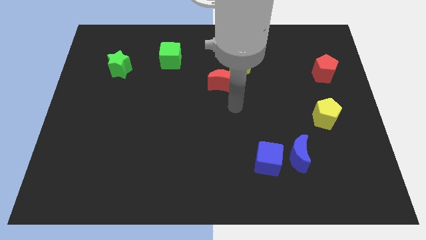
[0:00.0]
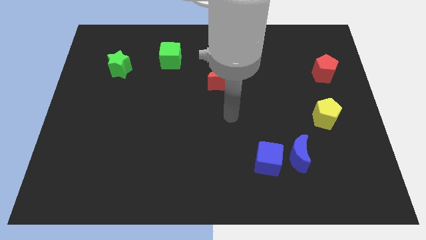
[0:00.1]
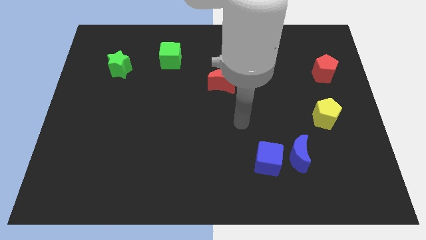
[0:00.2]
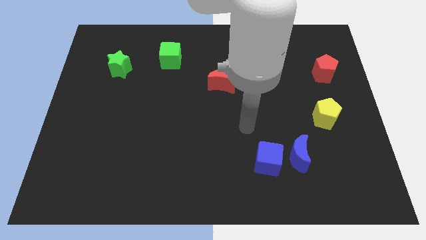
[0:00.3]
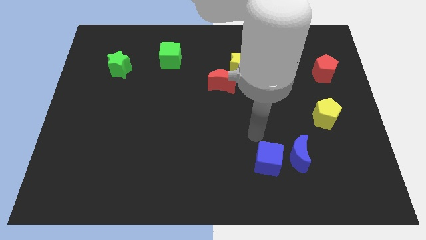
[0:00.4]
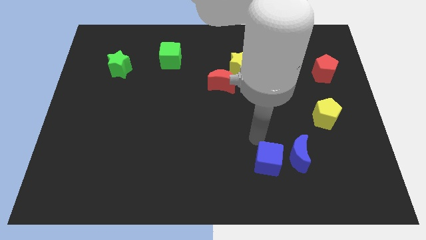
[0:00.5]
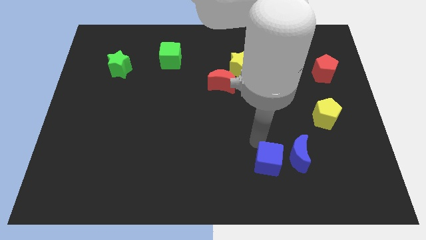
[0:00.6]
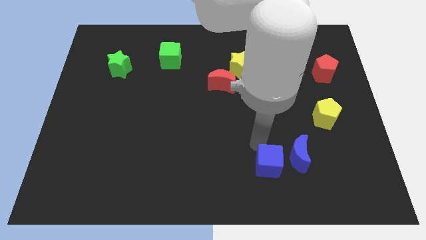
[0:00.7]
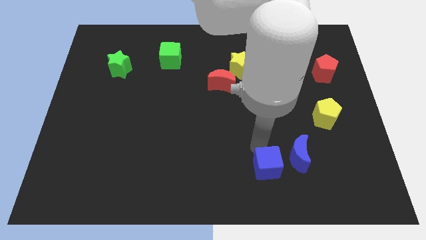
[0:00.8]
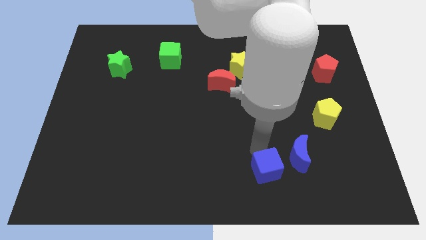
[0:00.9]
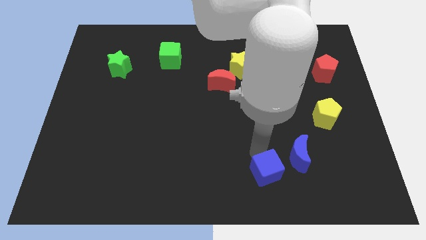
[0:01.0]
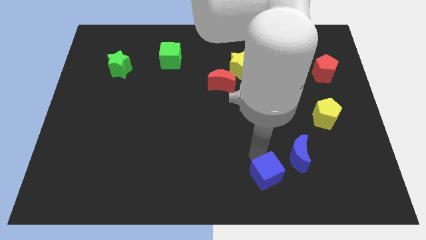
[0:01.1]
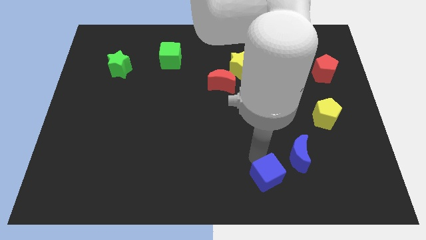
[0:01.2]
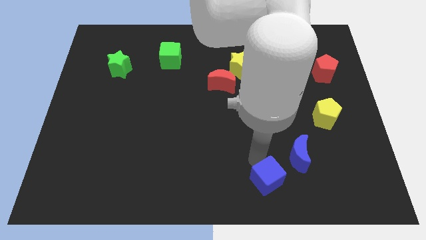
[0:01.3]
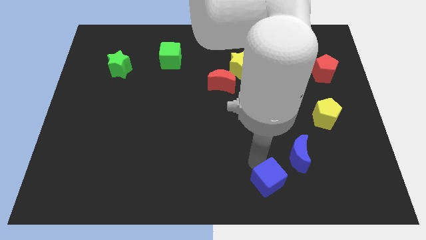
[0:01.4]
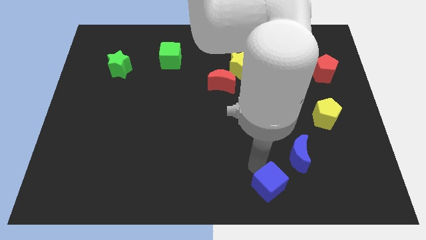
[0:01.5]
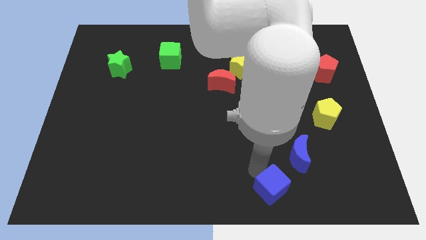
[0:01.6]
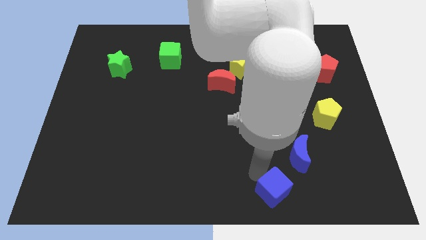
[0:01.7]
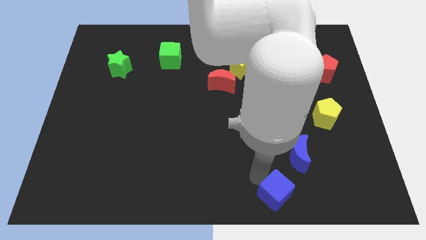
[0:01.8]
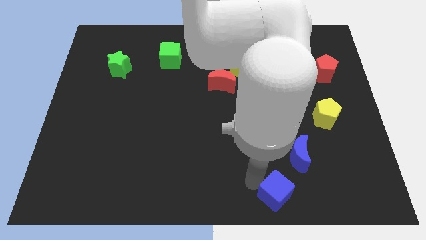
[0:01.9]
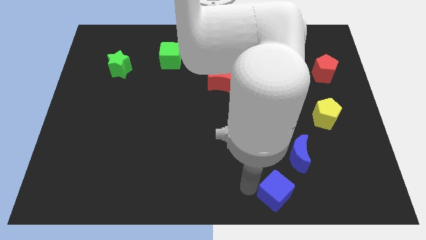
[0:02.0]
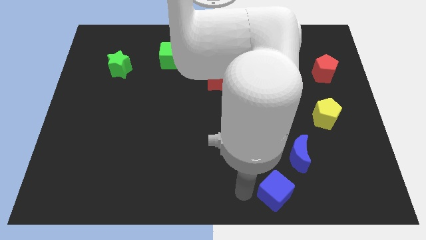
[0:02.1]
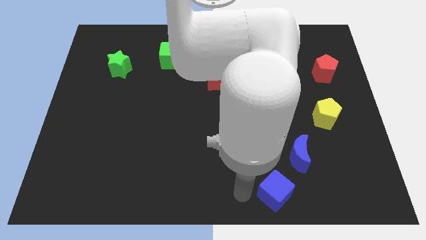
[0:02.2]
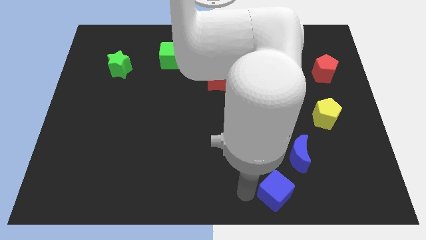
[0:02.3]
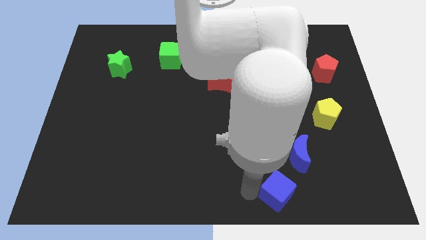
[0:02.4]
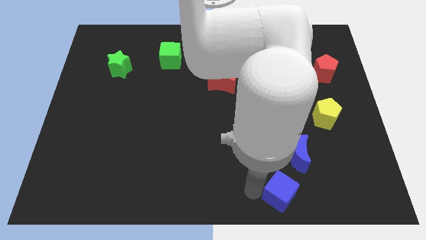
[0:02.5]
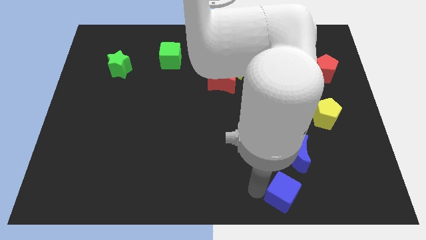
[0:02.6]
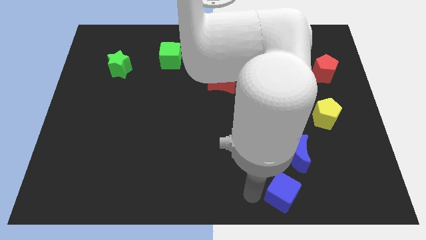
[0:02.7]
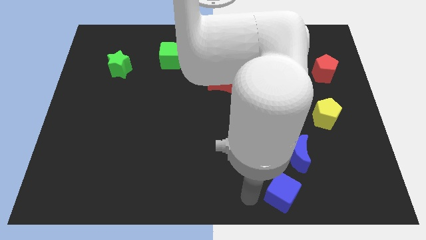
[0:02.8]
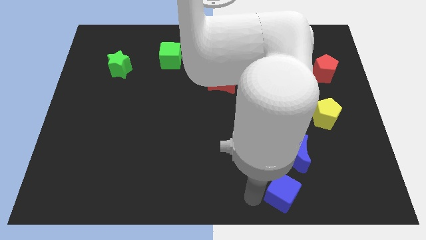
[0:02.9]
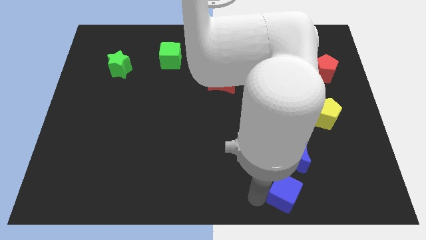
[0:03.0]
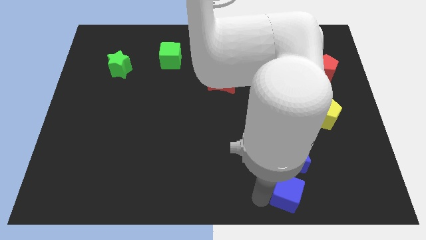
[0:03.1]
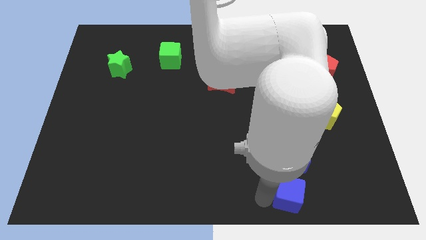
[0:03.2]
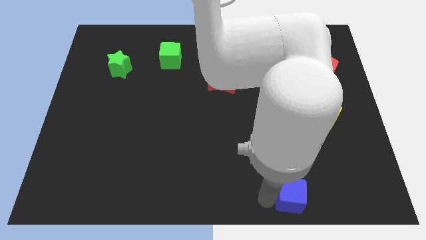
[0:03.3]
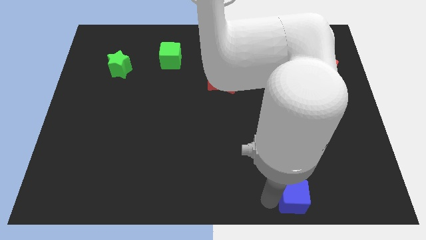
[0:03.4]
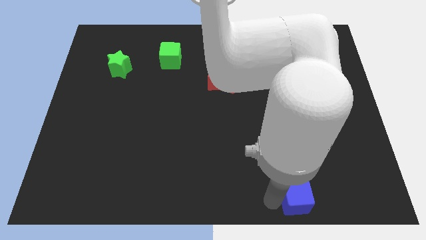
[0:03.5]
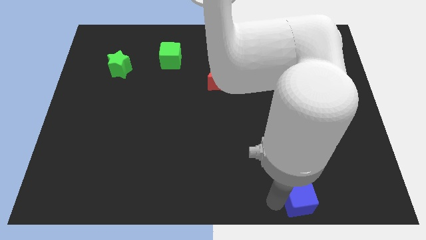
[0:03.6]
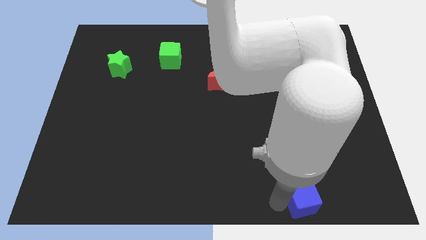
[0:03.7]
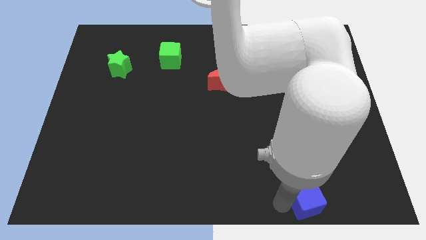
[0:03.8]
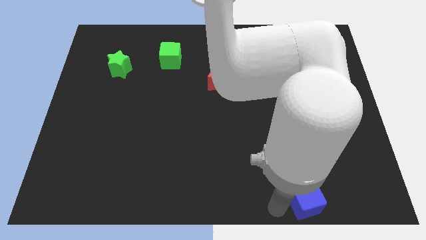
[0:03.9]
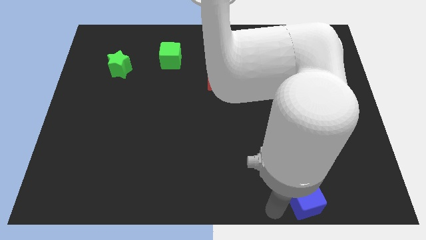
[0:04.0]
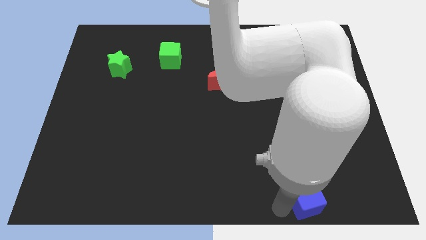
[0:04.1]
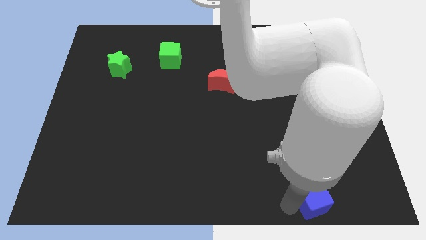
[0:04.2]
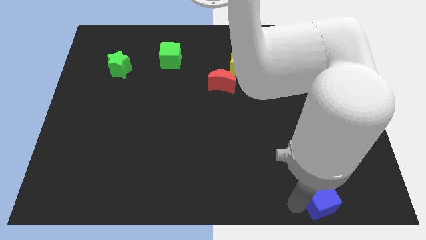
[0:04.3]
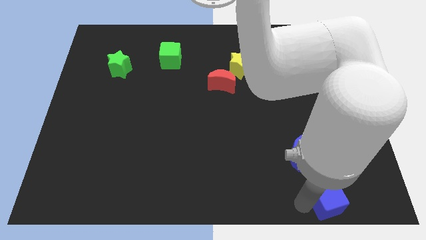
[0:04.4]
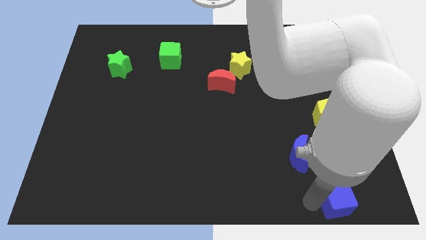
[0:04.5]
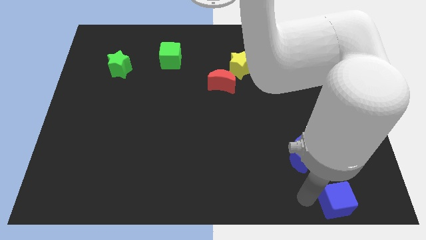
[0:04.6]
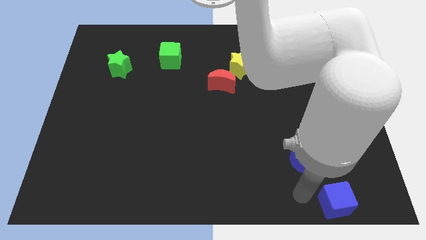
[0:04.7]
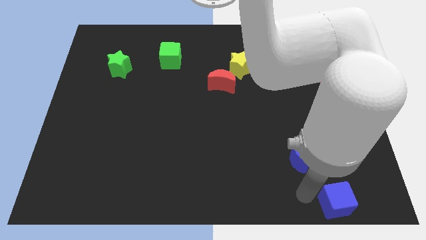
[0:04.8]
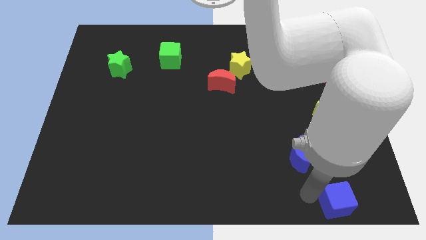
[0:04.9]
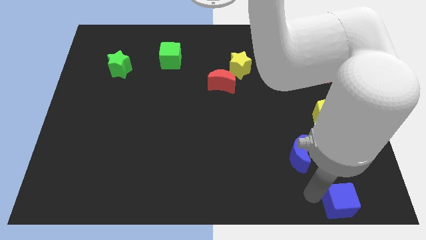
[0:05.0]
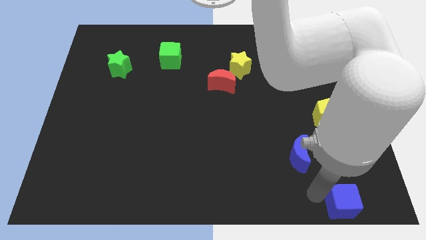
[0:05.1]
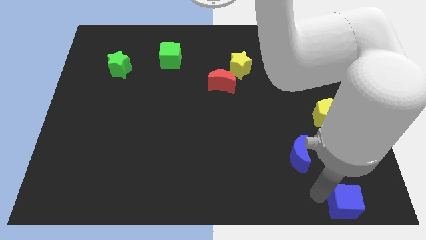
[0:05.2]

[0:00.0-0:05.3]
slide the blue cube to the bottom right corner

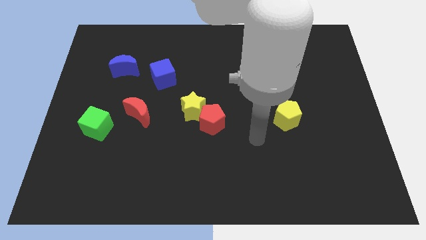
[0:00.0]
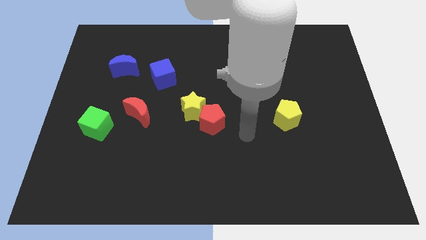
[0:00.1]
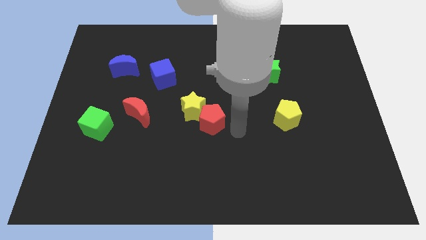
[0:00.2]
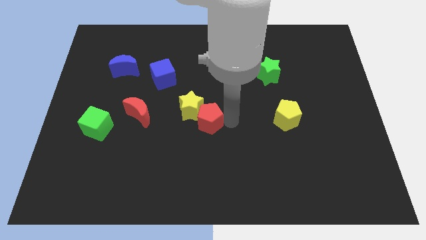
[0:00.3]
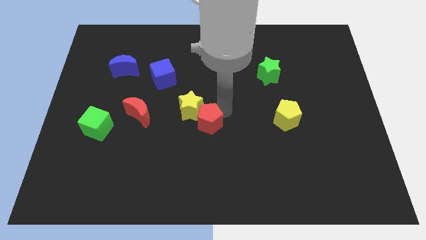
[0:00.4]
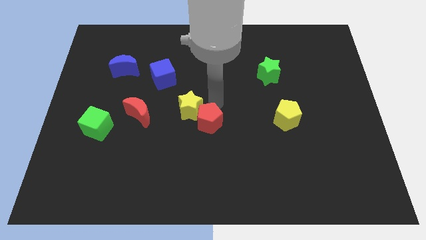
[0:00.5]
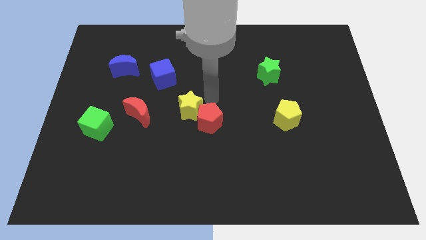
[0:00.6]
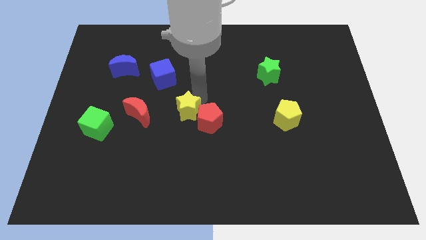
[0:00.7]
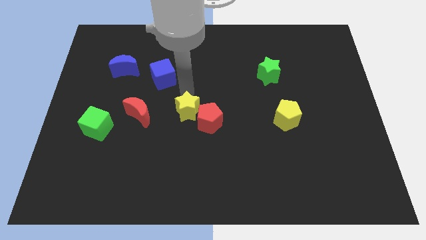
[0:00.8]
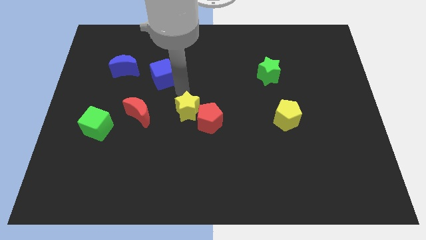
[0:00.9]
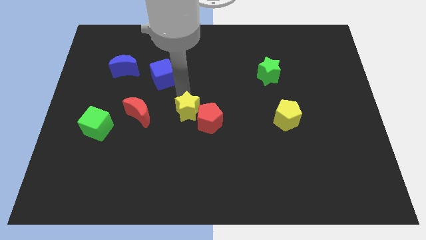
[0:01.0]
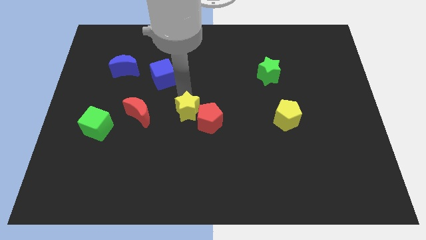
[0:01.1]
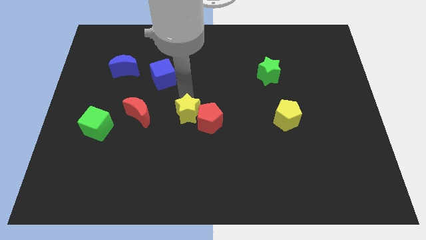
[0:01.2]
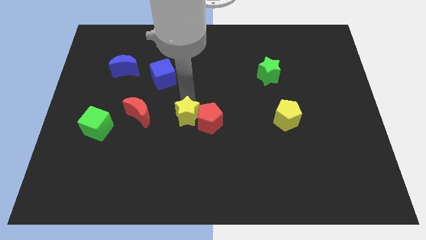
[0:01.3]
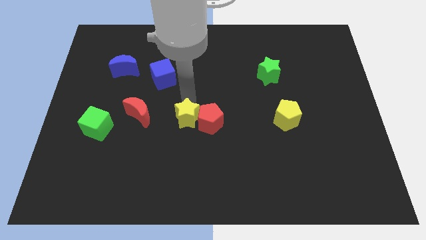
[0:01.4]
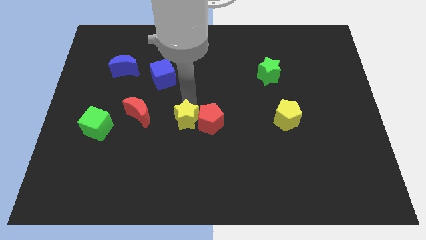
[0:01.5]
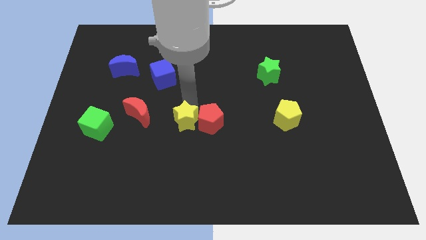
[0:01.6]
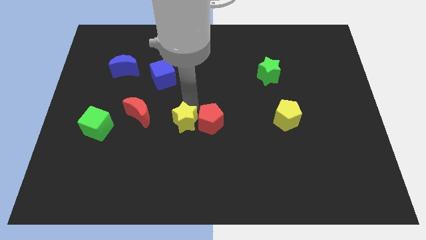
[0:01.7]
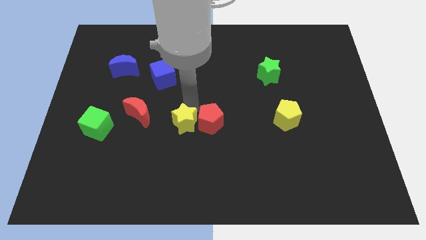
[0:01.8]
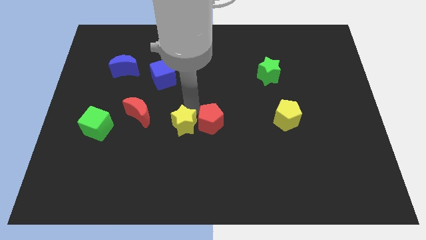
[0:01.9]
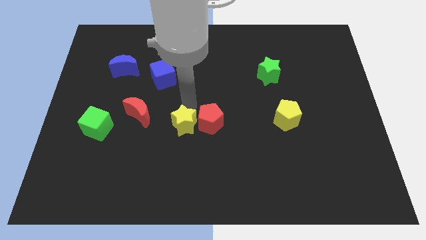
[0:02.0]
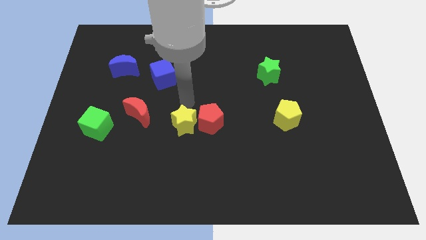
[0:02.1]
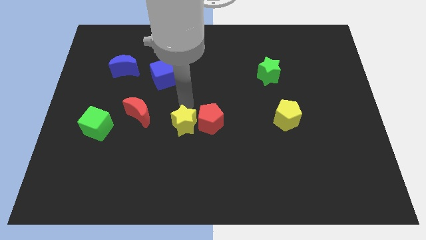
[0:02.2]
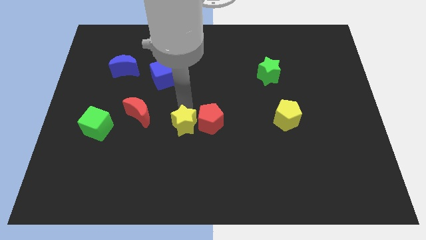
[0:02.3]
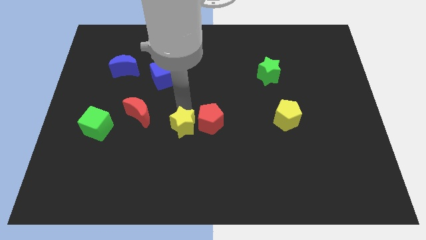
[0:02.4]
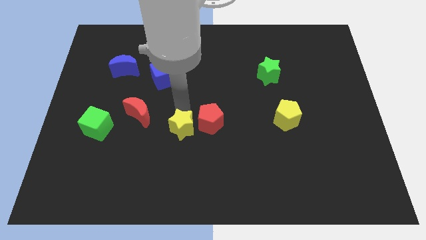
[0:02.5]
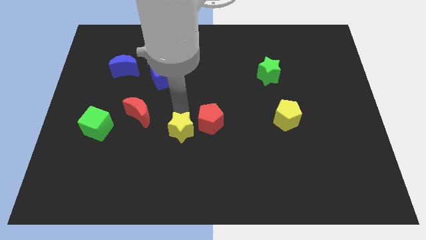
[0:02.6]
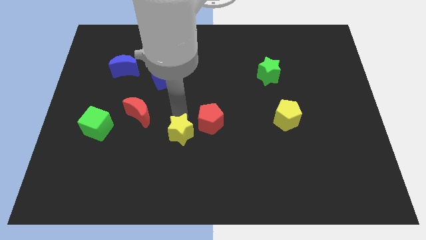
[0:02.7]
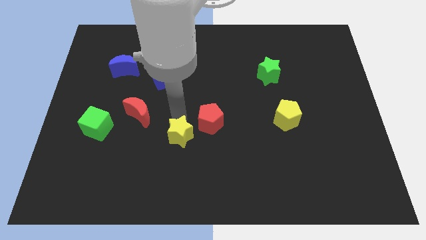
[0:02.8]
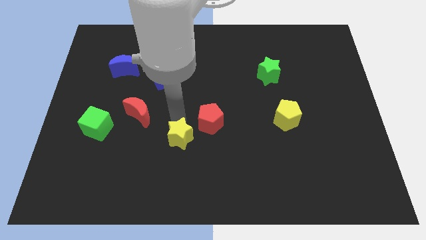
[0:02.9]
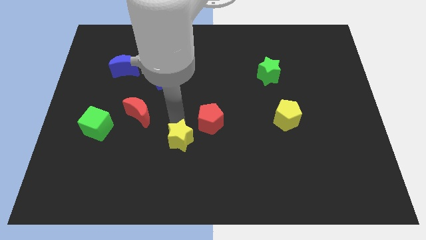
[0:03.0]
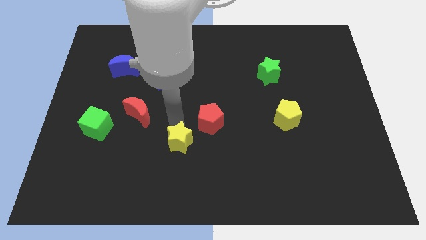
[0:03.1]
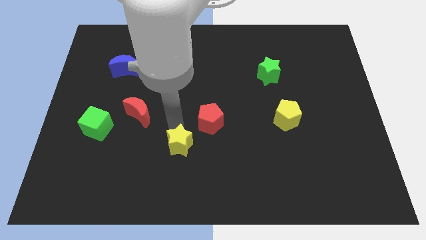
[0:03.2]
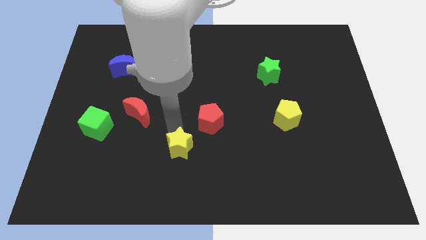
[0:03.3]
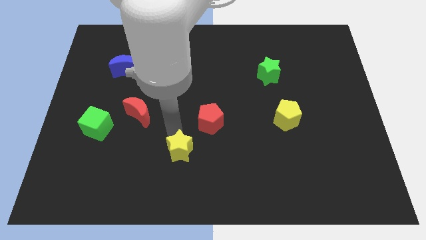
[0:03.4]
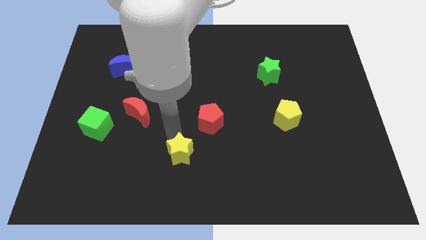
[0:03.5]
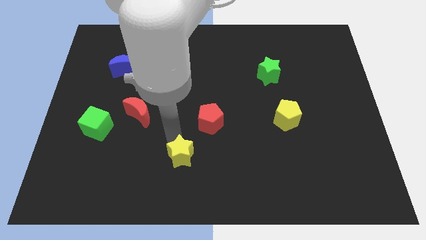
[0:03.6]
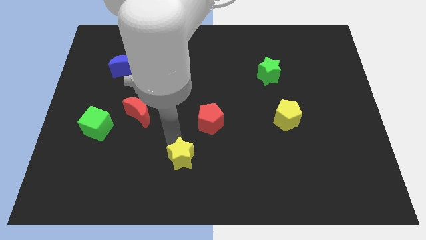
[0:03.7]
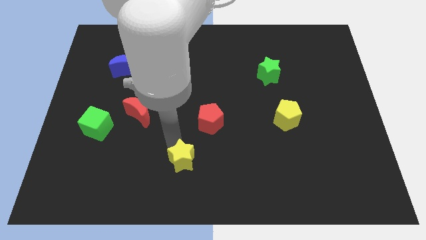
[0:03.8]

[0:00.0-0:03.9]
move the yellow star to the bottom side
